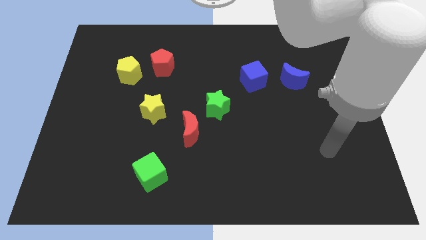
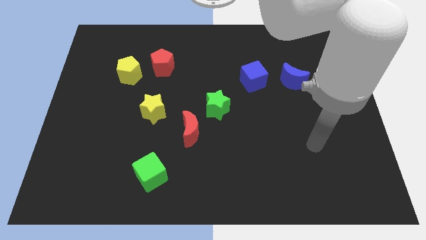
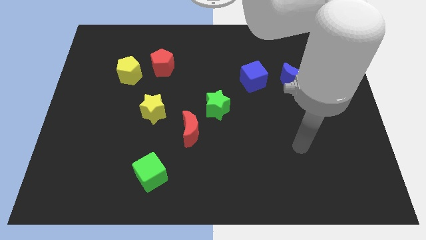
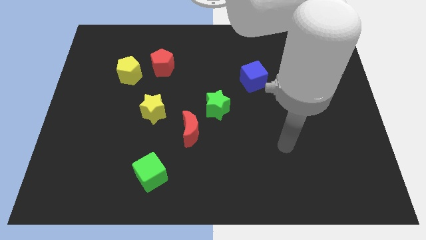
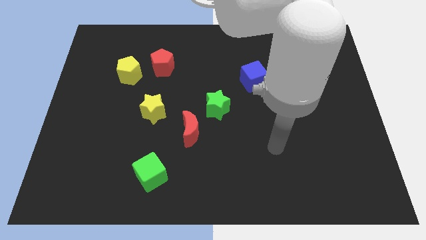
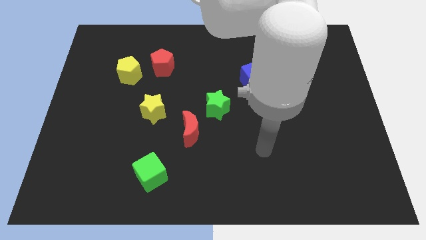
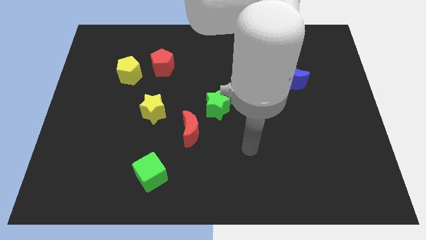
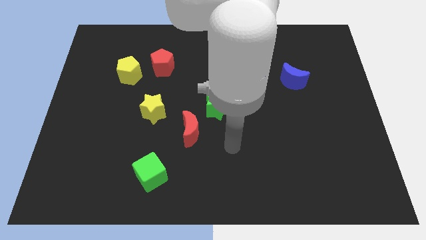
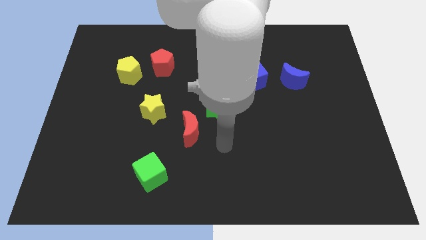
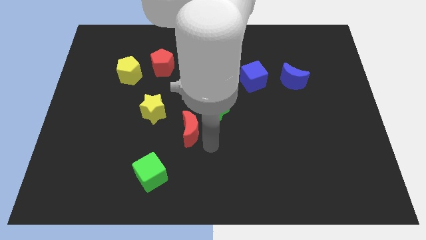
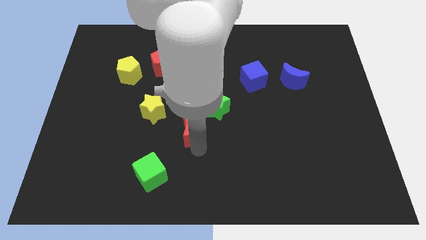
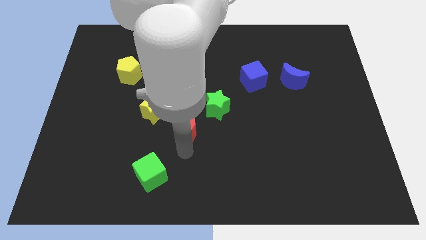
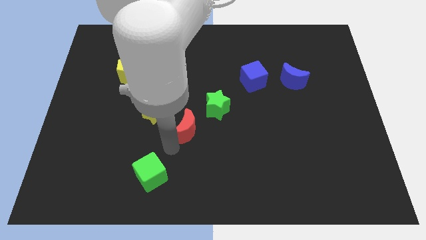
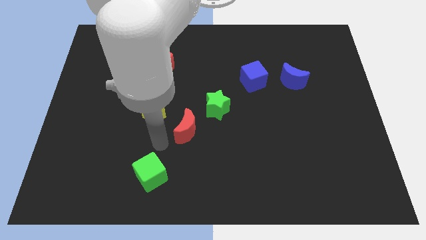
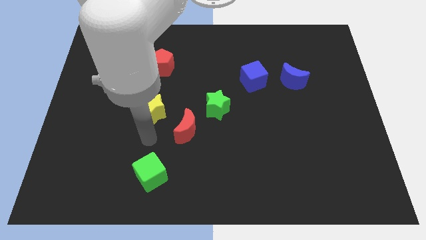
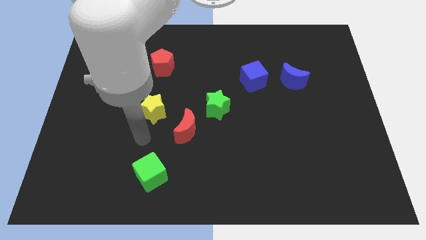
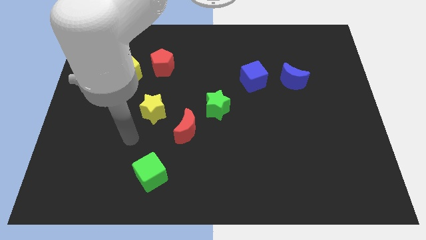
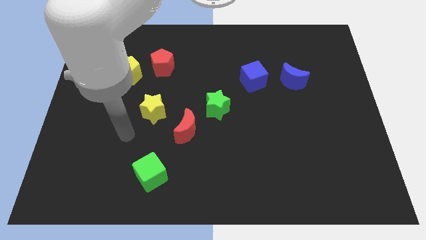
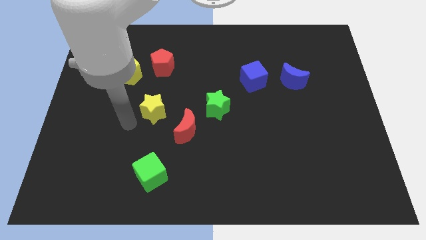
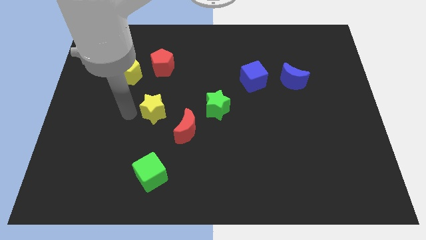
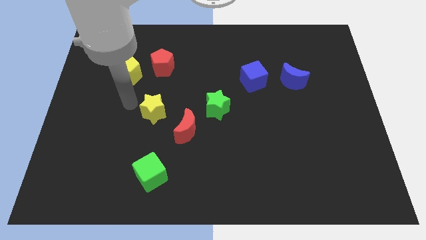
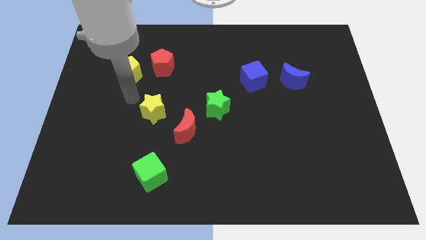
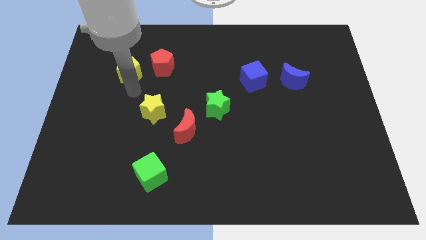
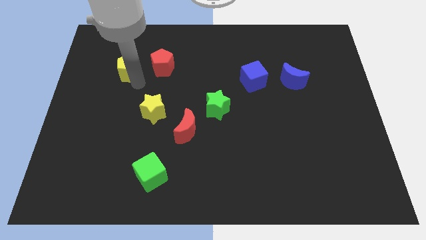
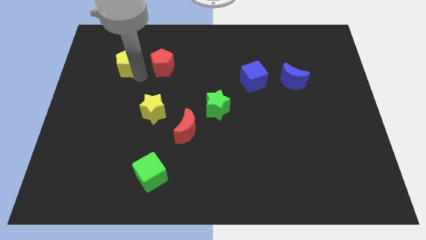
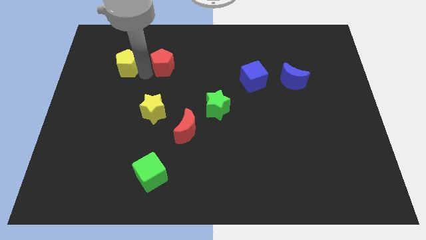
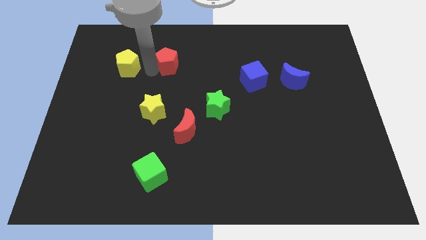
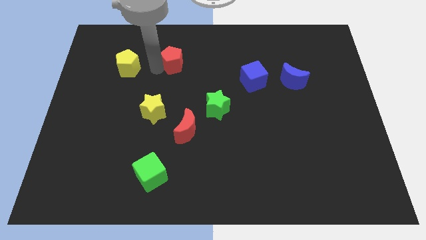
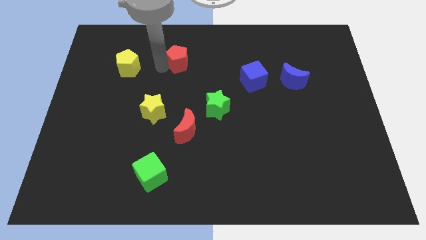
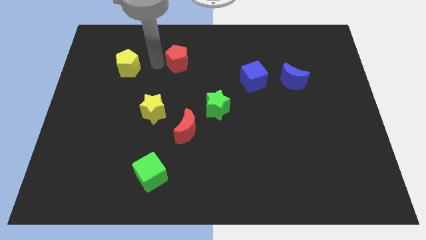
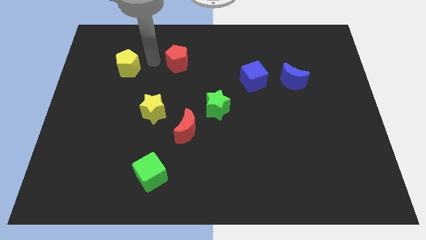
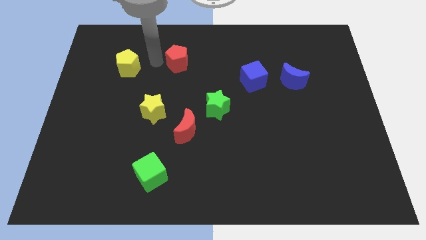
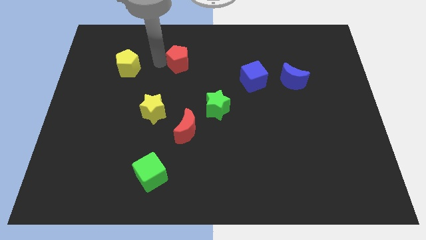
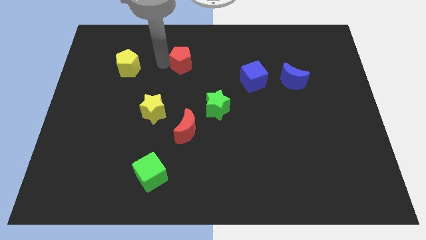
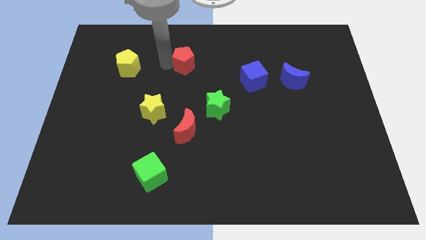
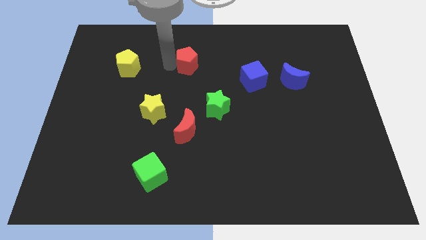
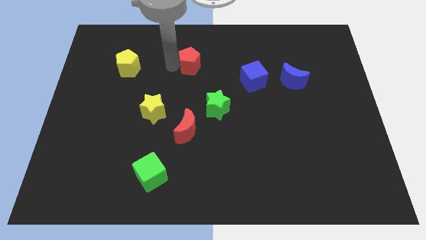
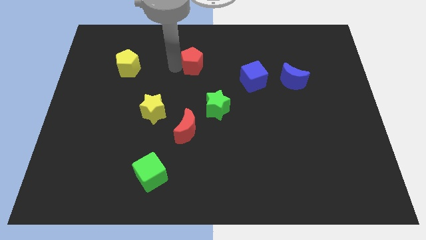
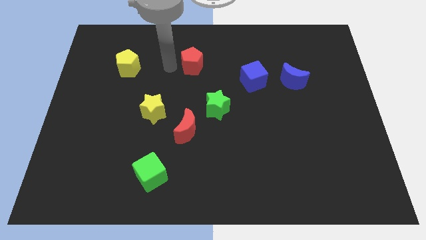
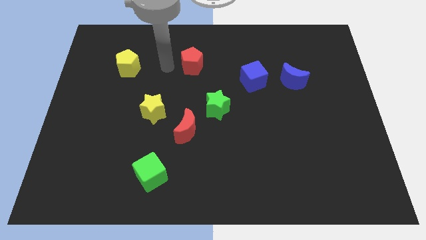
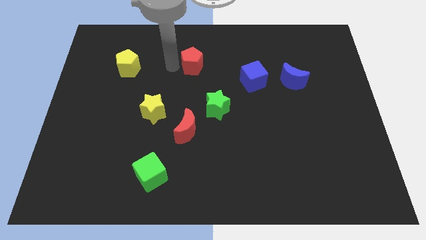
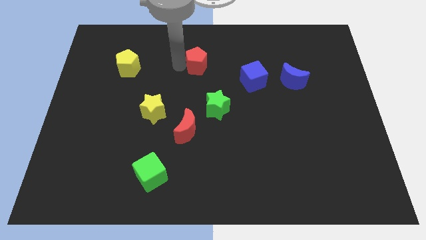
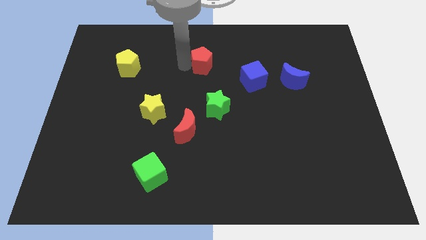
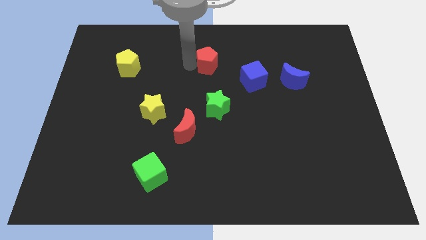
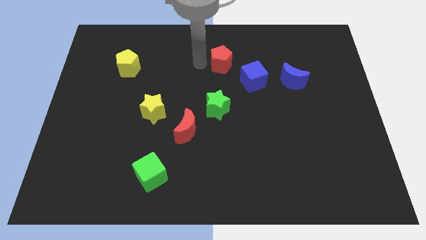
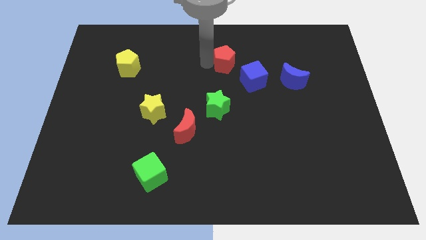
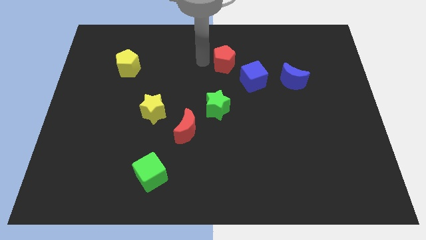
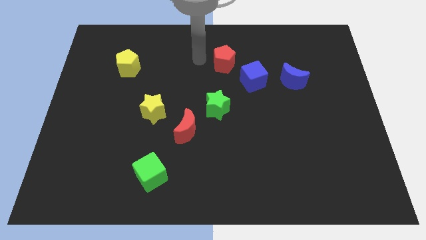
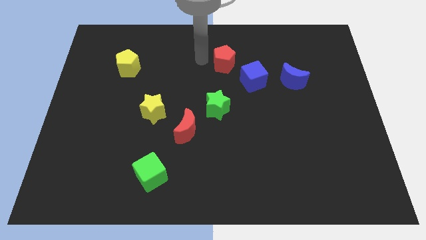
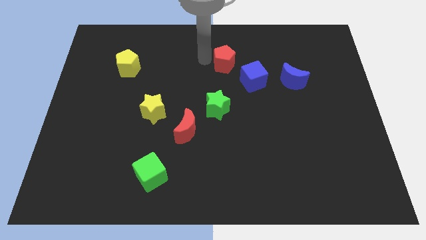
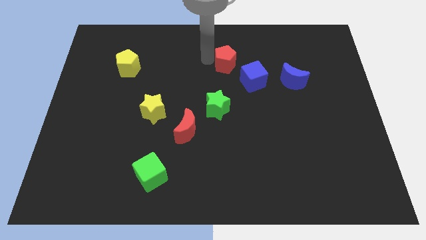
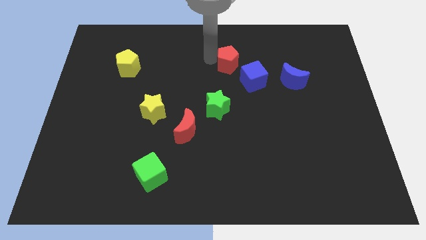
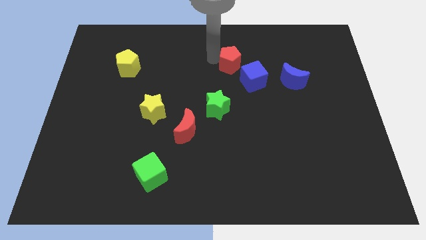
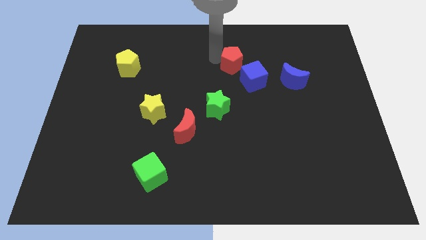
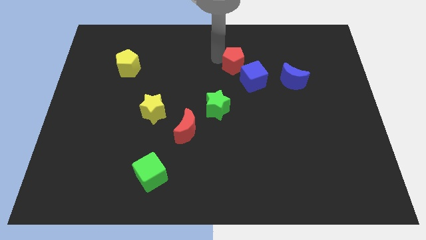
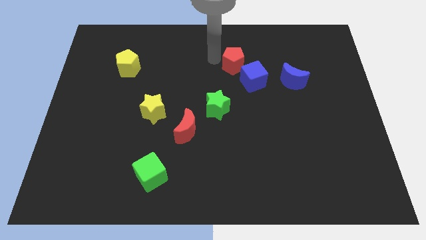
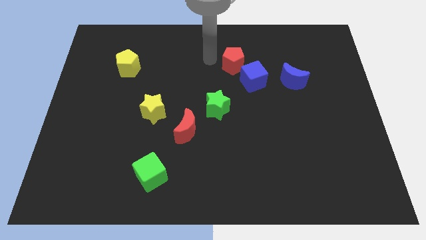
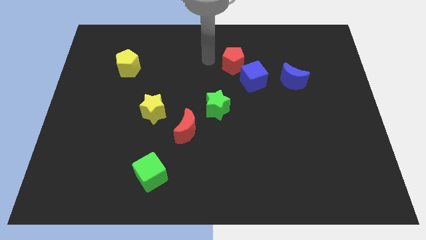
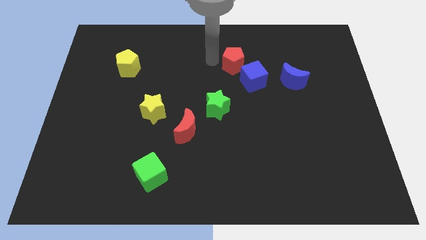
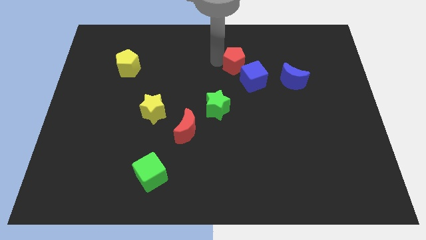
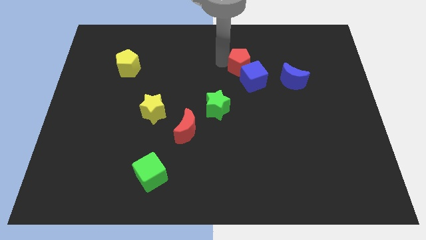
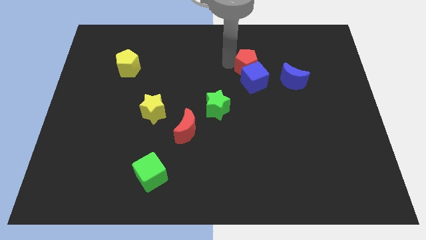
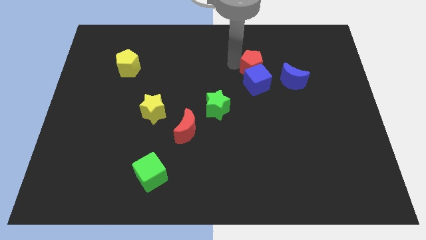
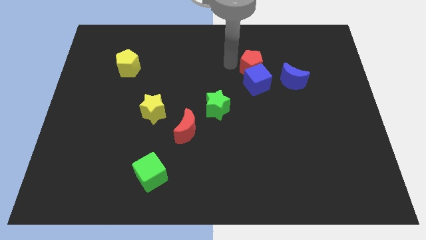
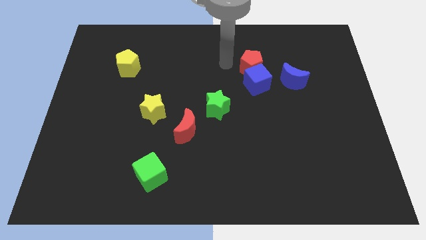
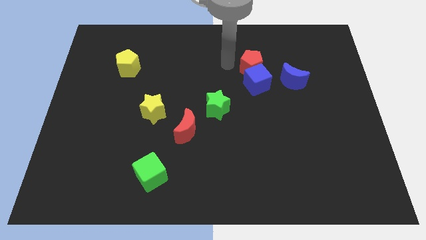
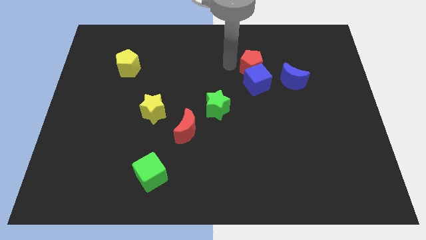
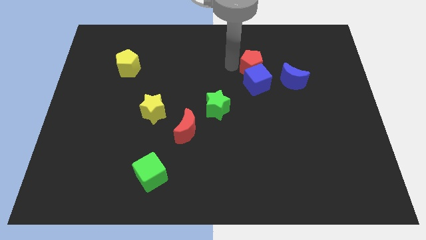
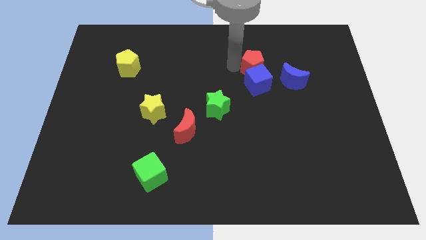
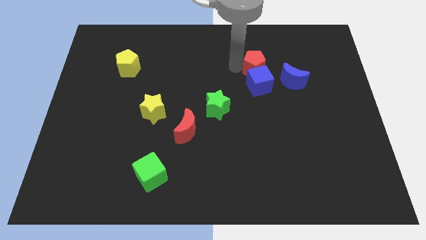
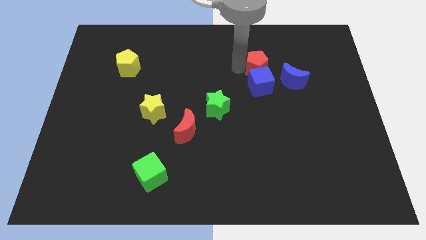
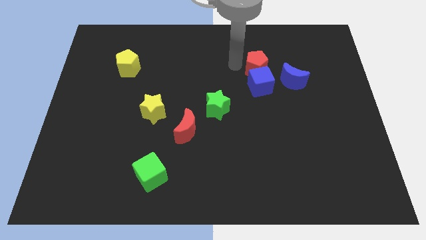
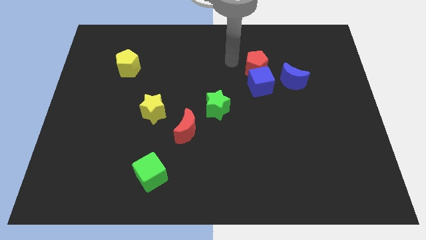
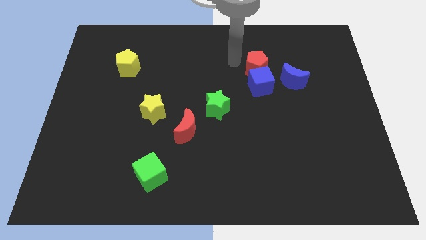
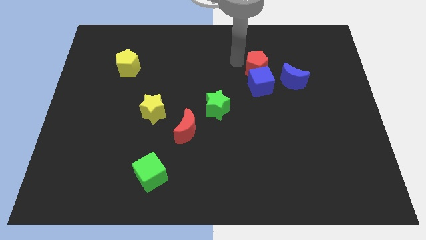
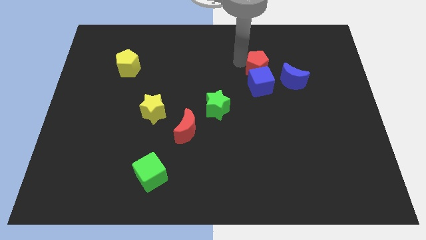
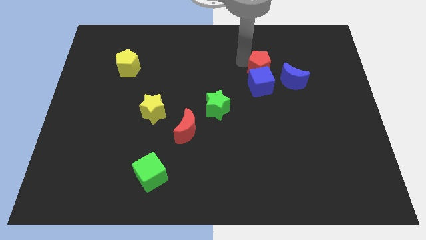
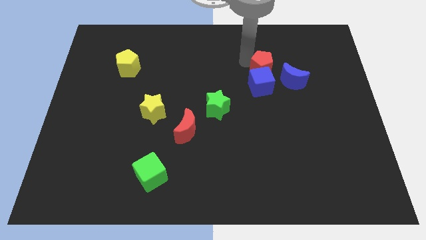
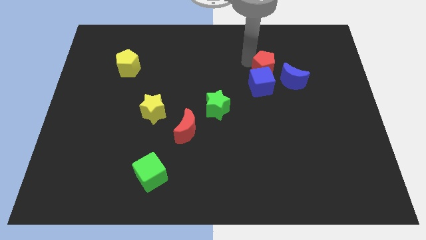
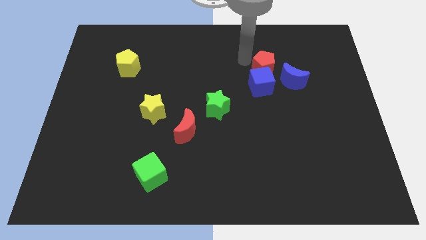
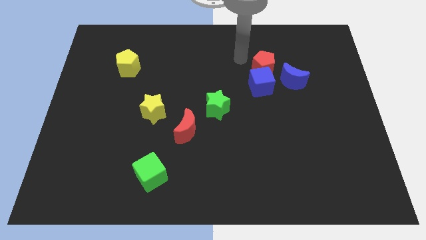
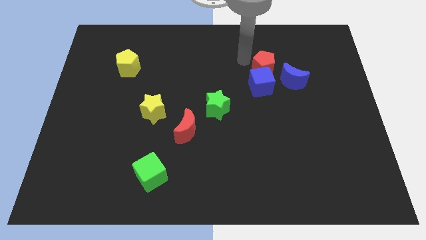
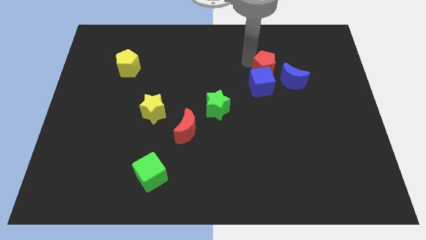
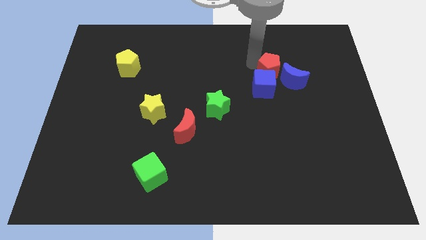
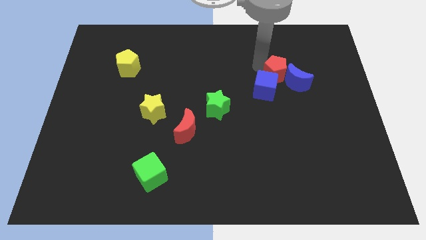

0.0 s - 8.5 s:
put the red pentagon close to the blue moon
